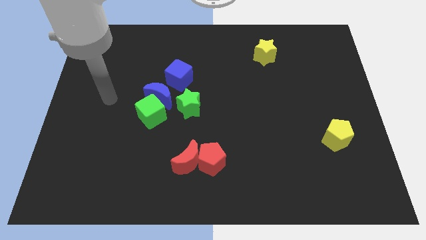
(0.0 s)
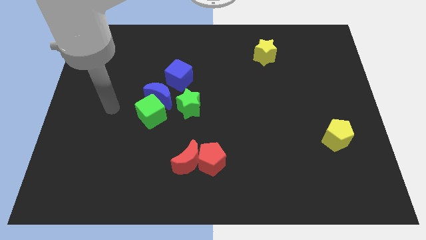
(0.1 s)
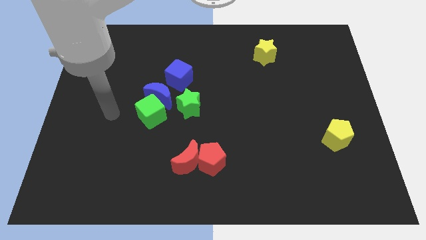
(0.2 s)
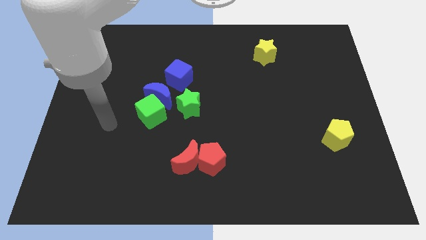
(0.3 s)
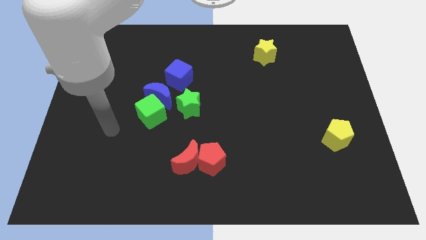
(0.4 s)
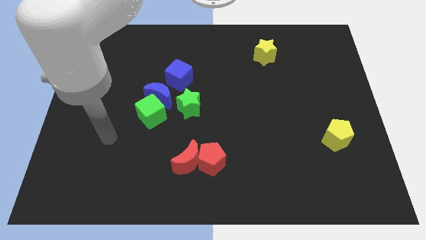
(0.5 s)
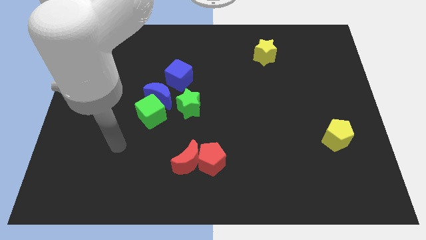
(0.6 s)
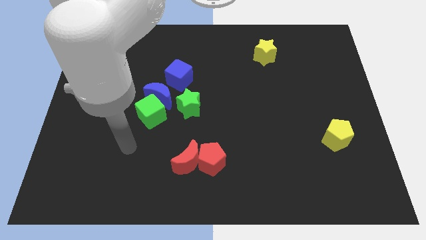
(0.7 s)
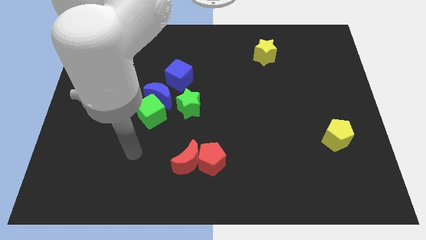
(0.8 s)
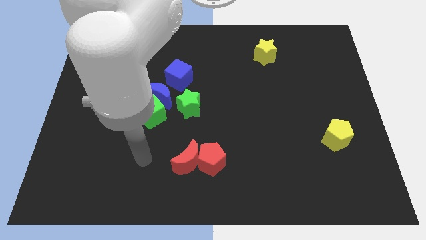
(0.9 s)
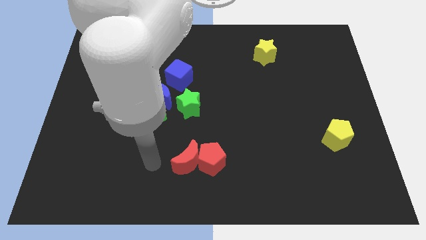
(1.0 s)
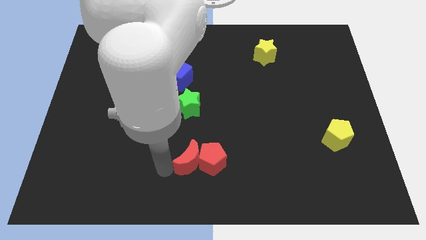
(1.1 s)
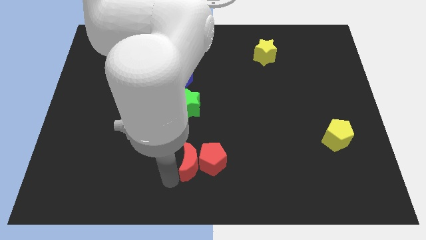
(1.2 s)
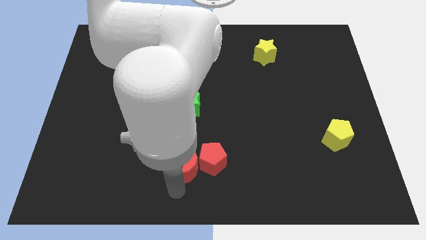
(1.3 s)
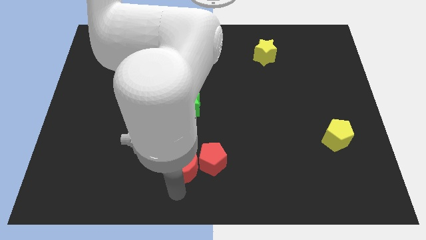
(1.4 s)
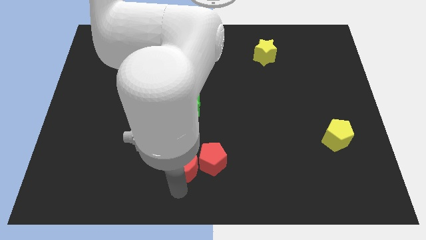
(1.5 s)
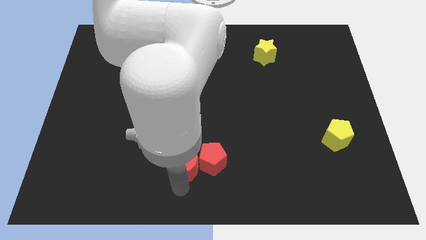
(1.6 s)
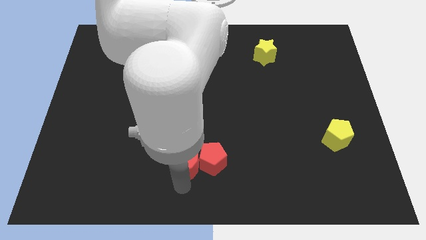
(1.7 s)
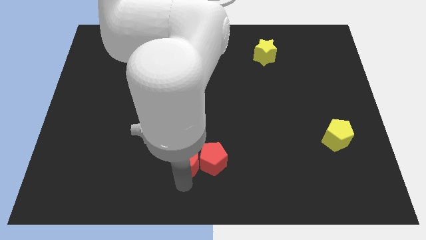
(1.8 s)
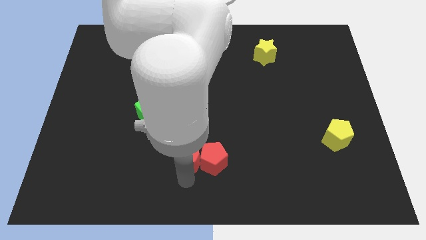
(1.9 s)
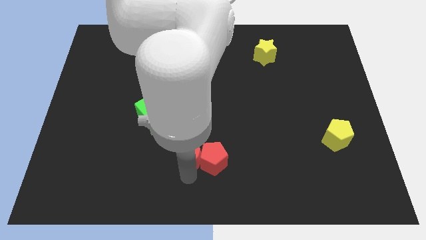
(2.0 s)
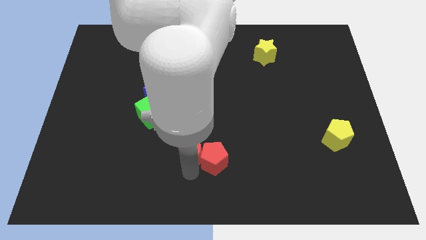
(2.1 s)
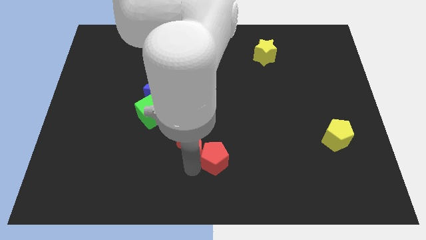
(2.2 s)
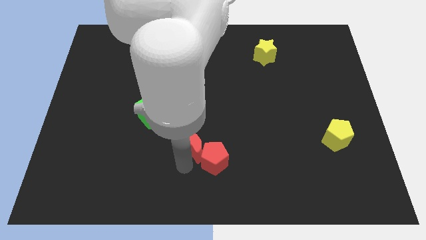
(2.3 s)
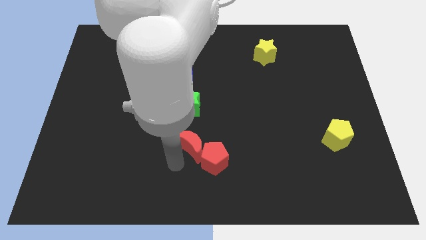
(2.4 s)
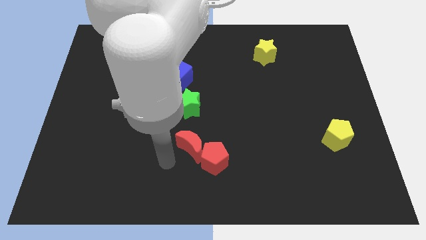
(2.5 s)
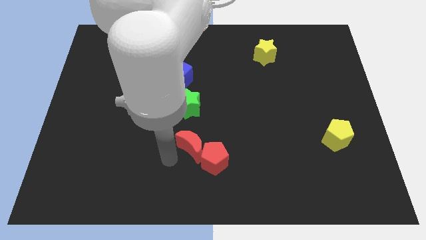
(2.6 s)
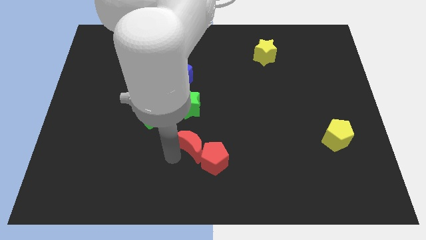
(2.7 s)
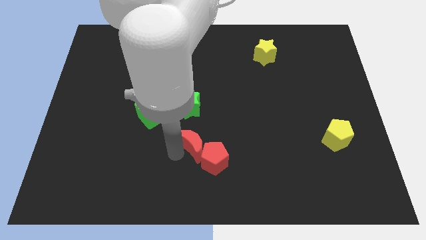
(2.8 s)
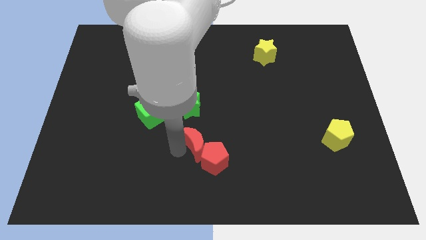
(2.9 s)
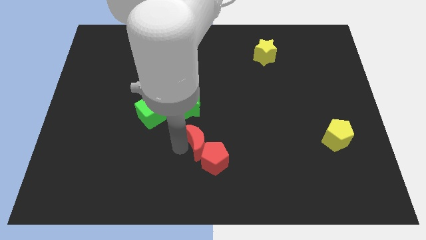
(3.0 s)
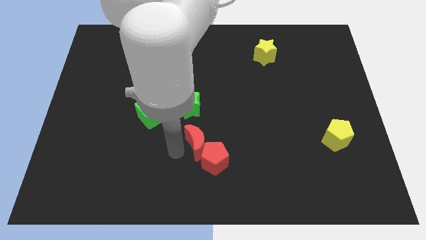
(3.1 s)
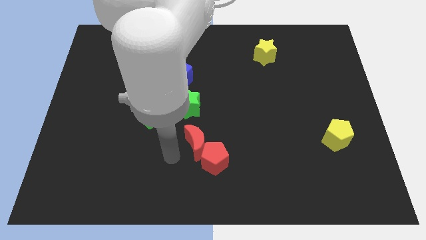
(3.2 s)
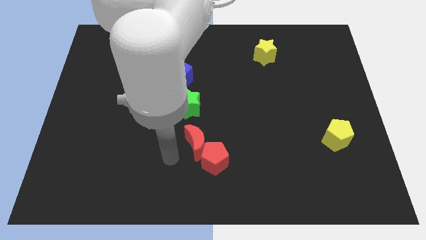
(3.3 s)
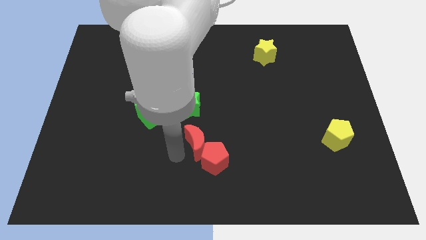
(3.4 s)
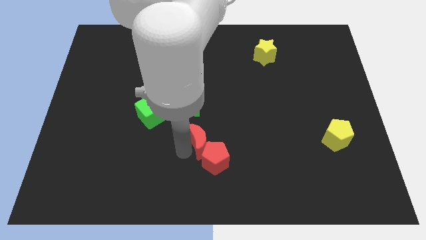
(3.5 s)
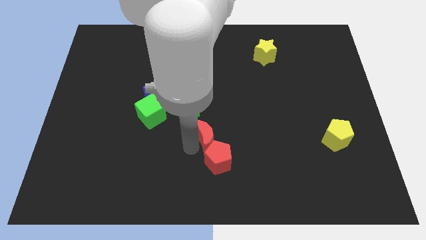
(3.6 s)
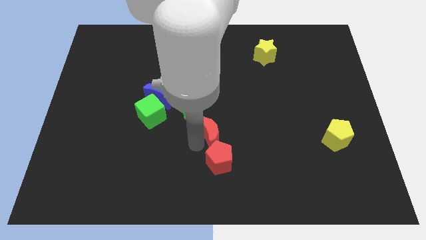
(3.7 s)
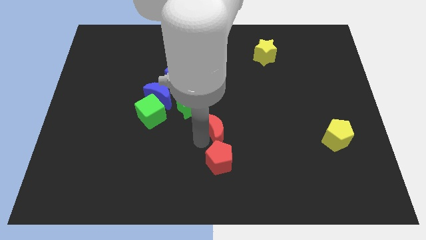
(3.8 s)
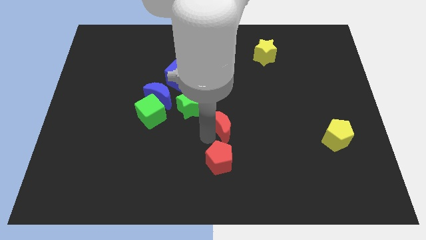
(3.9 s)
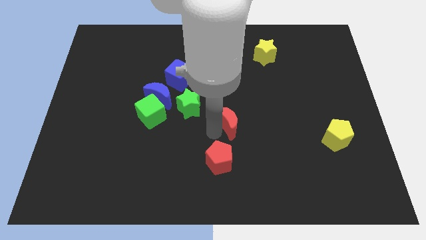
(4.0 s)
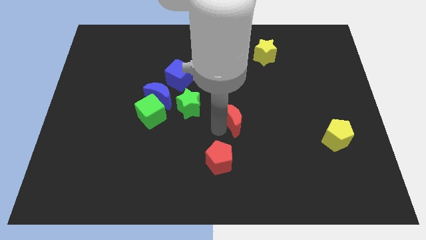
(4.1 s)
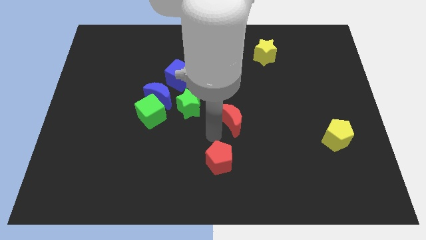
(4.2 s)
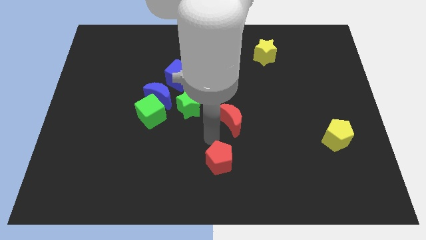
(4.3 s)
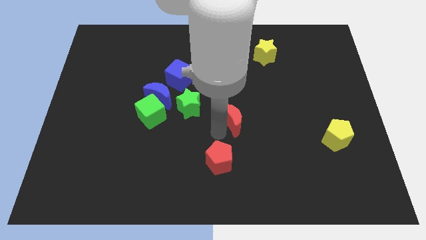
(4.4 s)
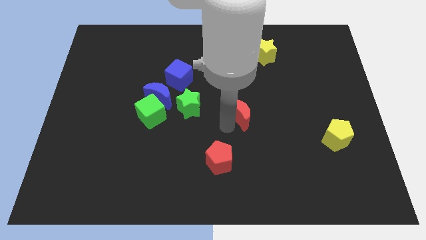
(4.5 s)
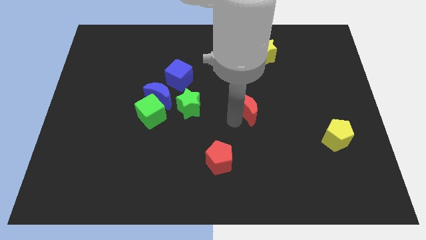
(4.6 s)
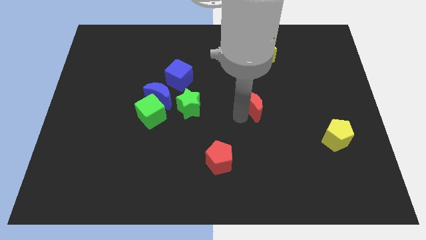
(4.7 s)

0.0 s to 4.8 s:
push the red moon up and right

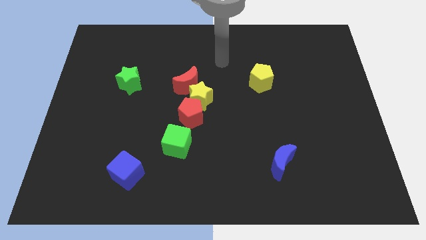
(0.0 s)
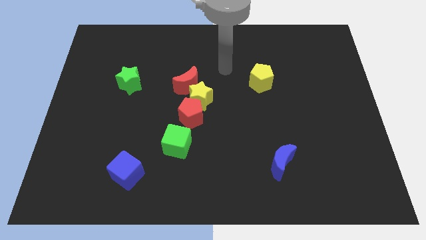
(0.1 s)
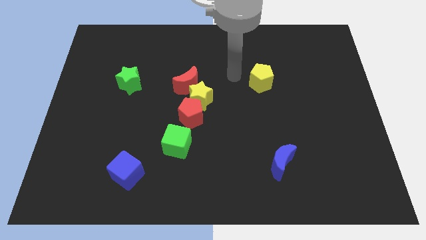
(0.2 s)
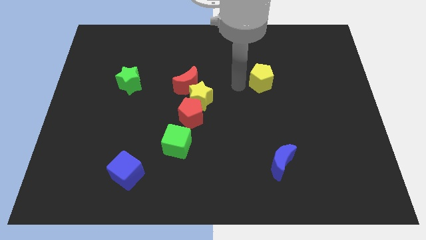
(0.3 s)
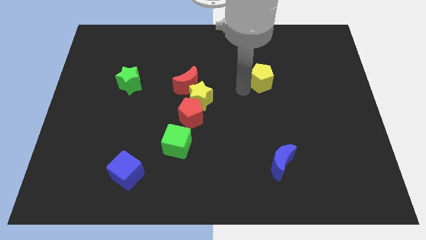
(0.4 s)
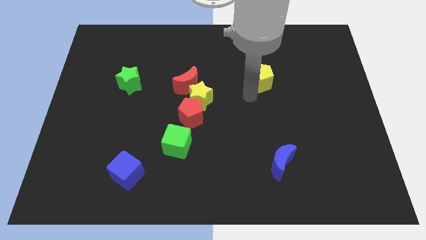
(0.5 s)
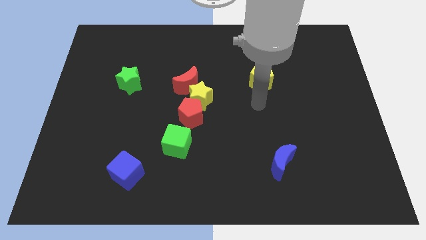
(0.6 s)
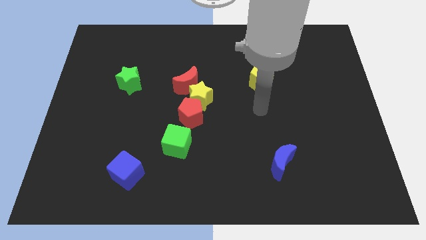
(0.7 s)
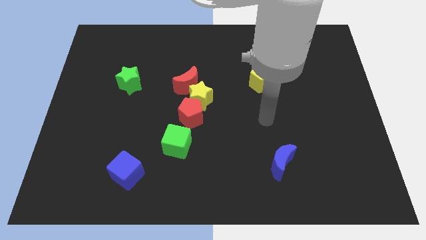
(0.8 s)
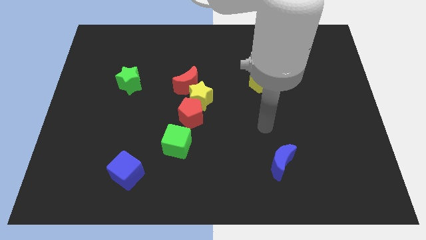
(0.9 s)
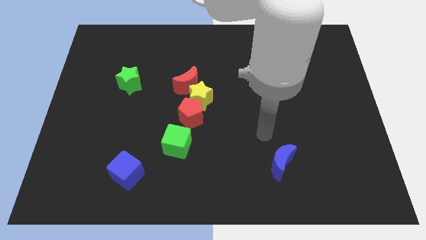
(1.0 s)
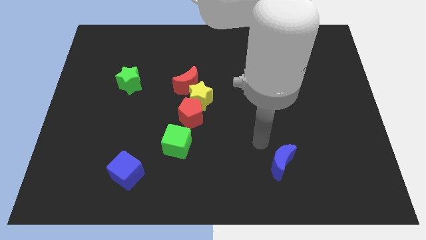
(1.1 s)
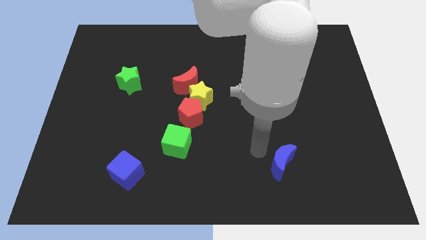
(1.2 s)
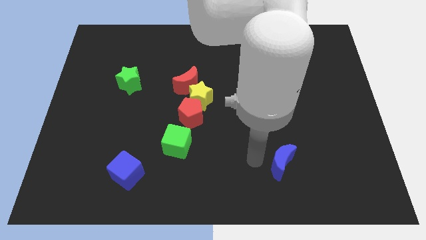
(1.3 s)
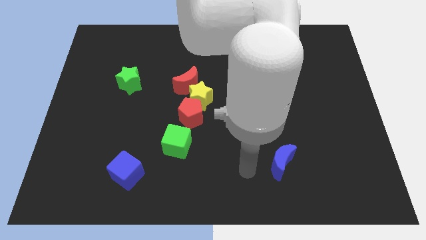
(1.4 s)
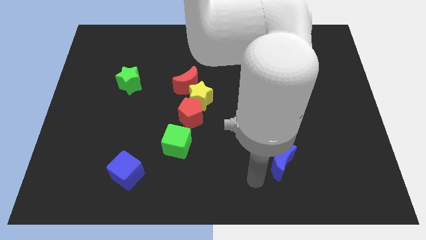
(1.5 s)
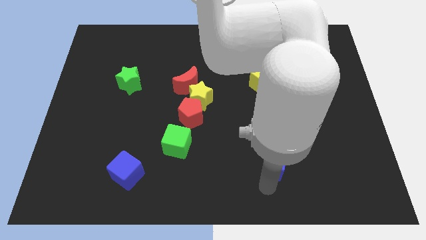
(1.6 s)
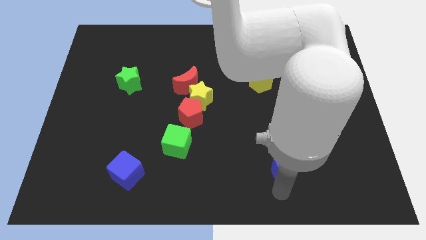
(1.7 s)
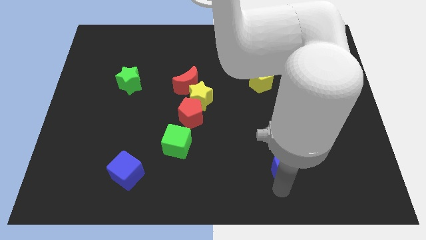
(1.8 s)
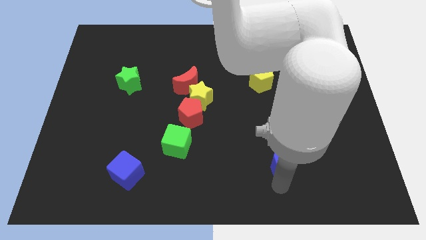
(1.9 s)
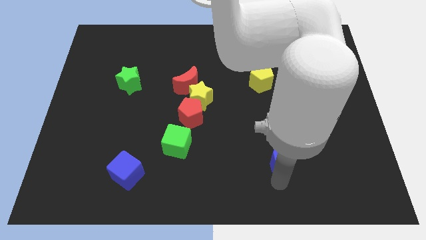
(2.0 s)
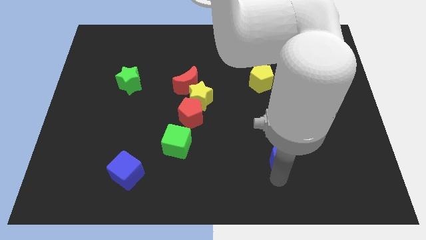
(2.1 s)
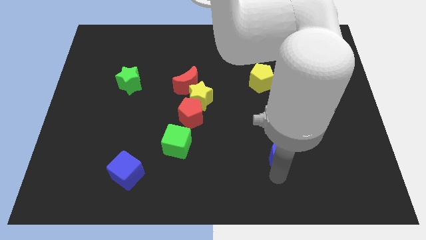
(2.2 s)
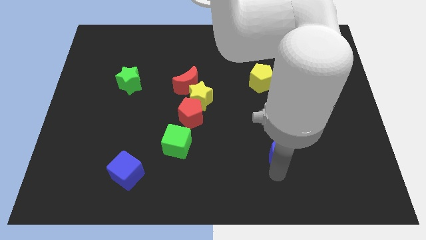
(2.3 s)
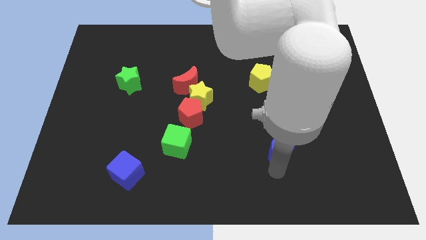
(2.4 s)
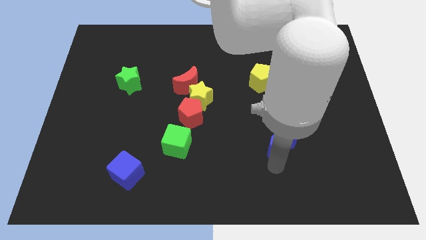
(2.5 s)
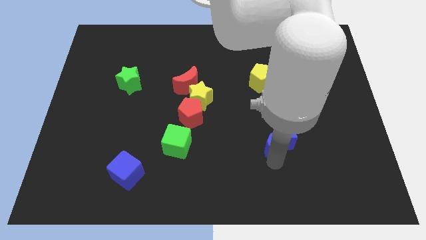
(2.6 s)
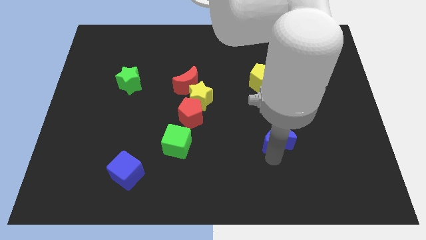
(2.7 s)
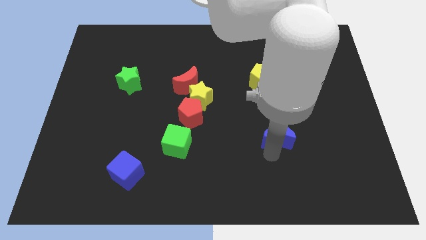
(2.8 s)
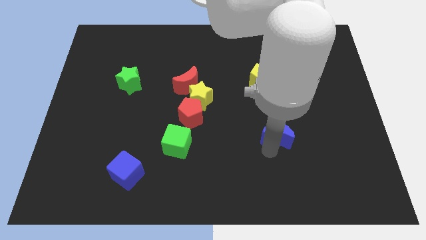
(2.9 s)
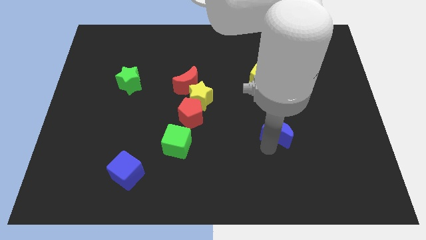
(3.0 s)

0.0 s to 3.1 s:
move the blue moon a bit upwards
